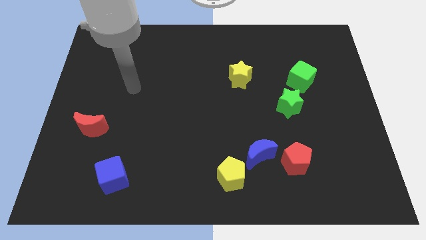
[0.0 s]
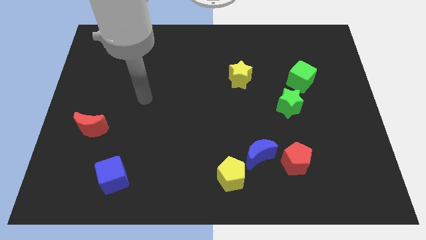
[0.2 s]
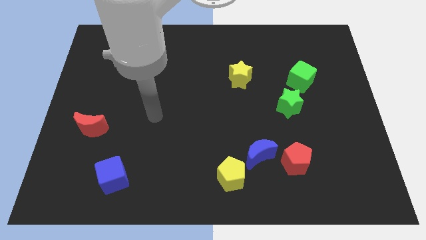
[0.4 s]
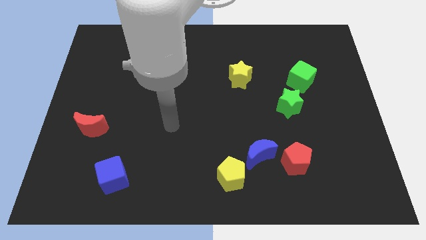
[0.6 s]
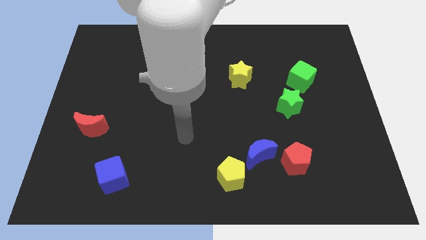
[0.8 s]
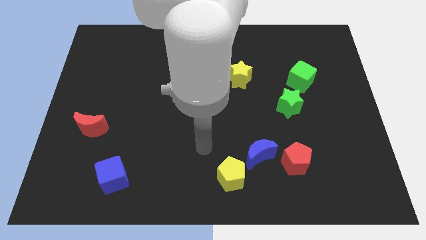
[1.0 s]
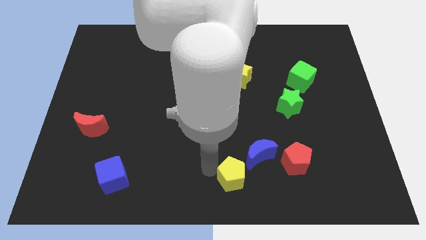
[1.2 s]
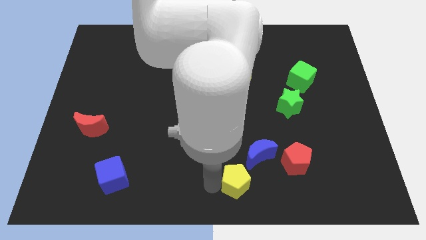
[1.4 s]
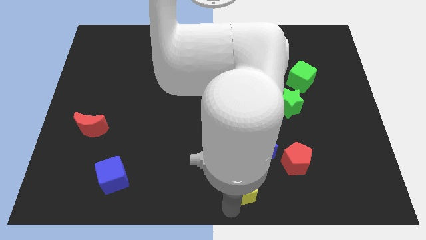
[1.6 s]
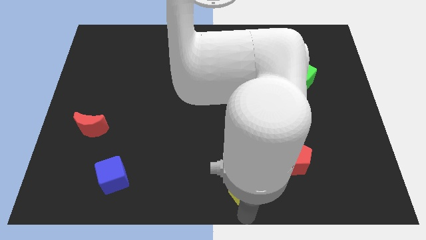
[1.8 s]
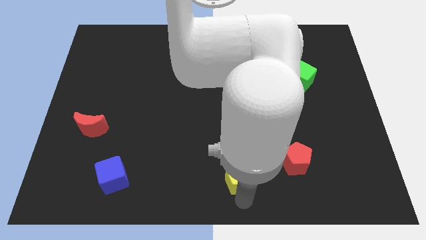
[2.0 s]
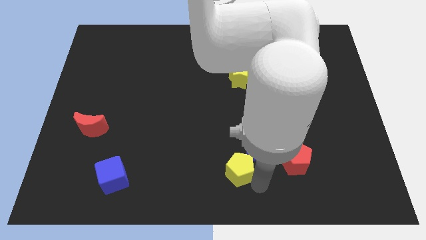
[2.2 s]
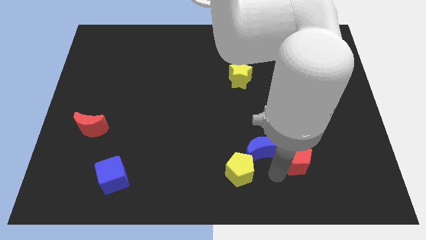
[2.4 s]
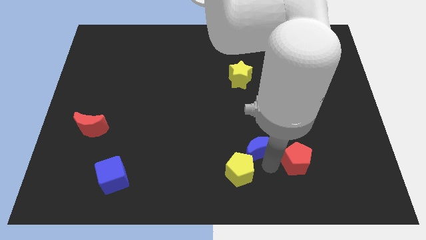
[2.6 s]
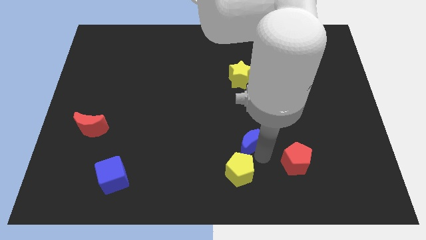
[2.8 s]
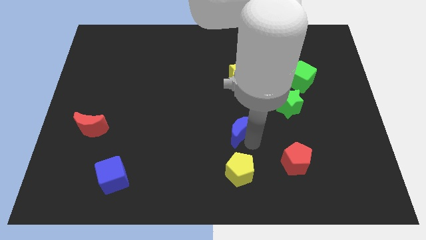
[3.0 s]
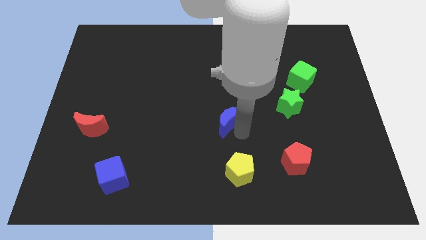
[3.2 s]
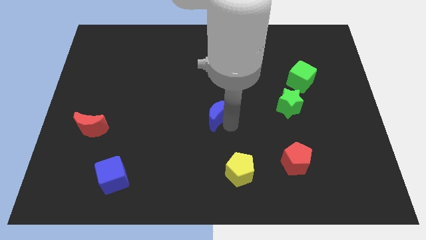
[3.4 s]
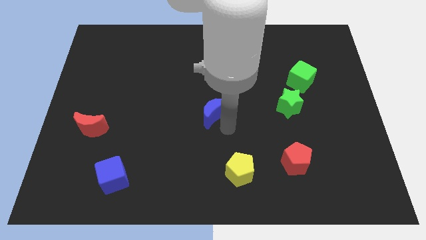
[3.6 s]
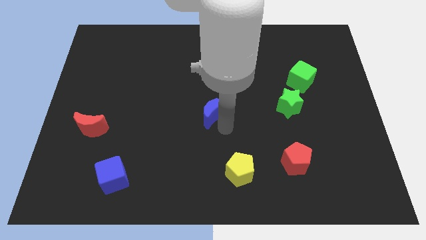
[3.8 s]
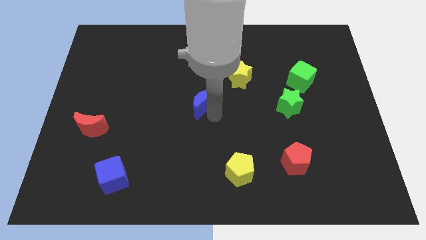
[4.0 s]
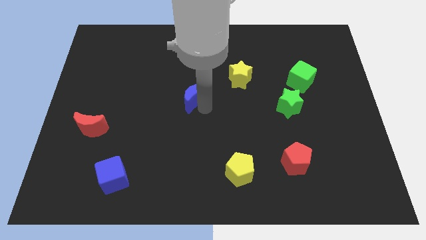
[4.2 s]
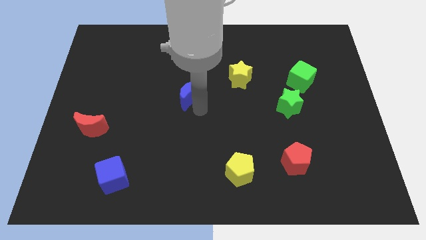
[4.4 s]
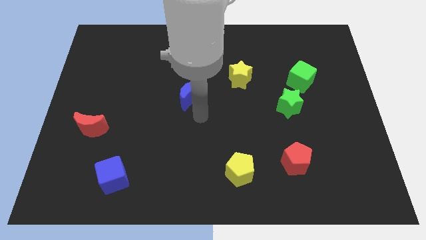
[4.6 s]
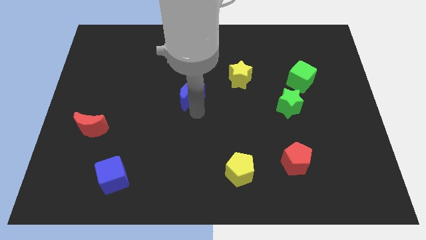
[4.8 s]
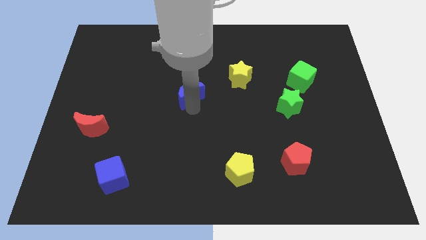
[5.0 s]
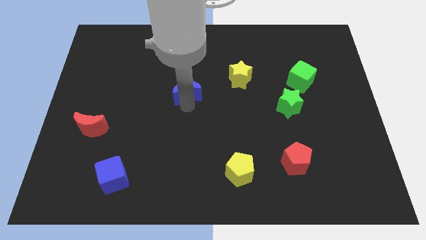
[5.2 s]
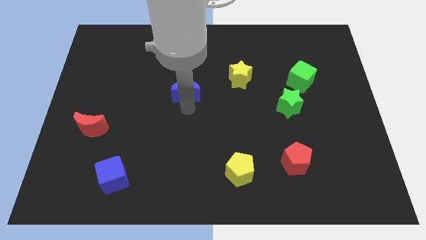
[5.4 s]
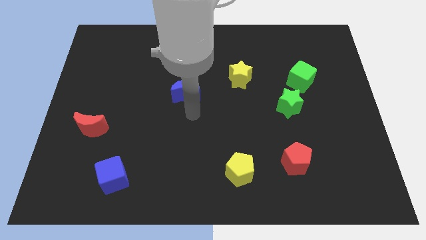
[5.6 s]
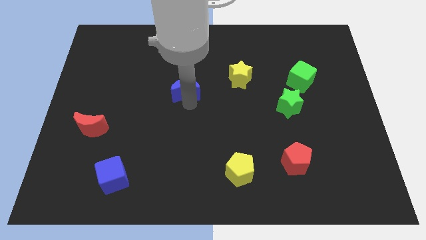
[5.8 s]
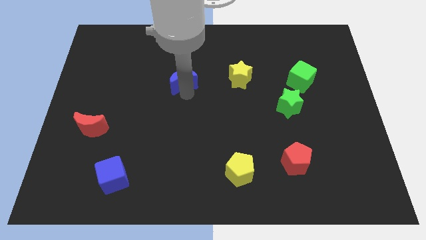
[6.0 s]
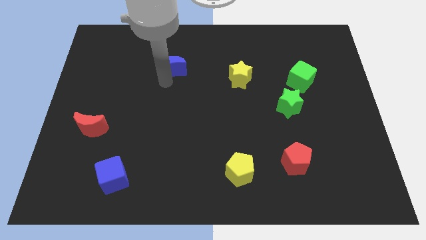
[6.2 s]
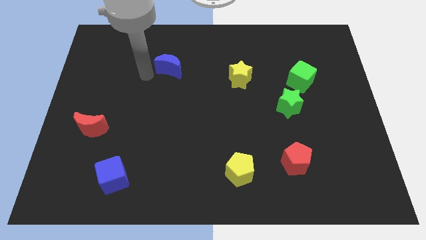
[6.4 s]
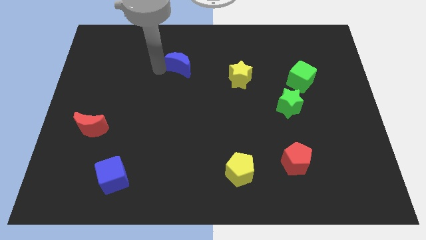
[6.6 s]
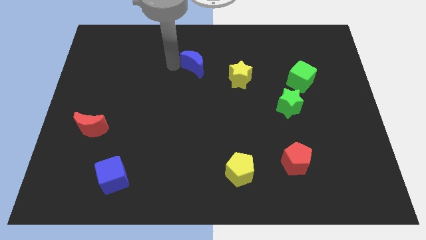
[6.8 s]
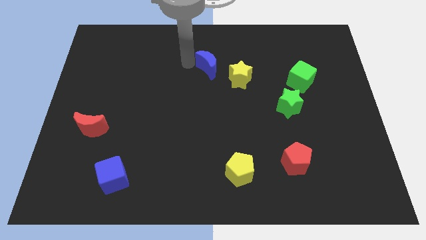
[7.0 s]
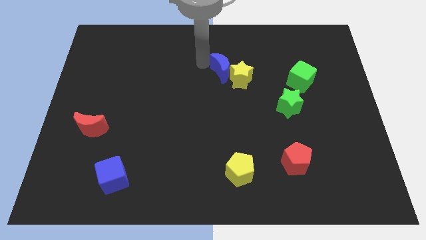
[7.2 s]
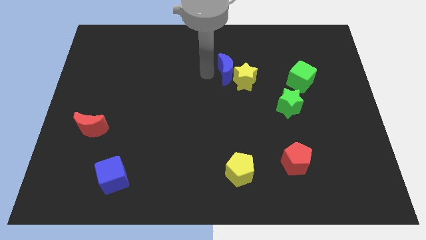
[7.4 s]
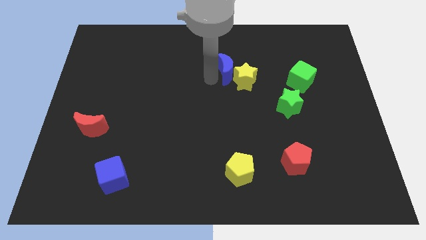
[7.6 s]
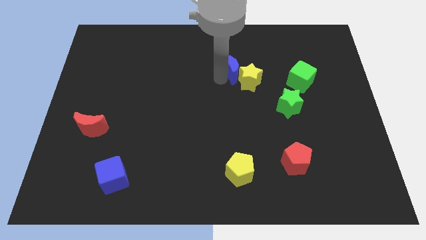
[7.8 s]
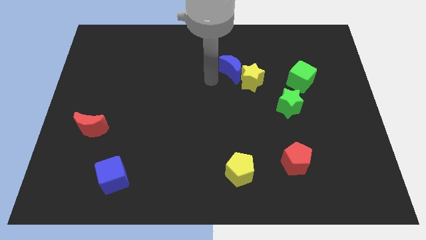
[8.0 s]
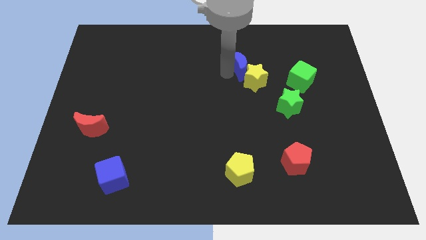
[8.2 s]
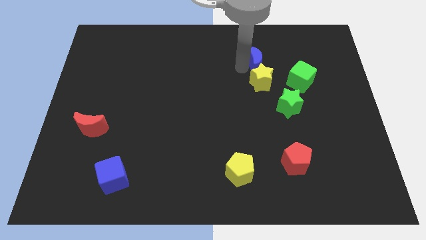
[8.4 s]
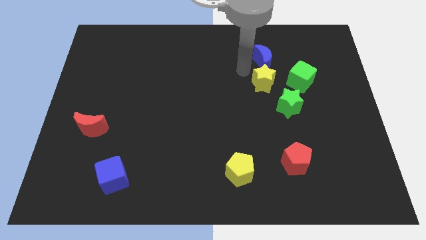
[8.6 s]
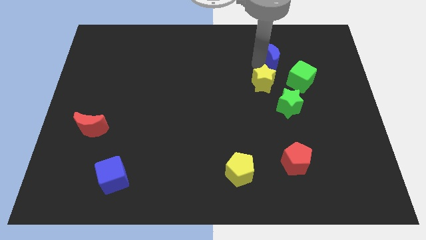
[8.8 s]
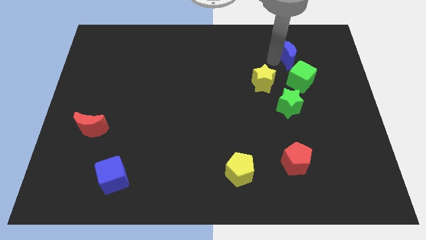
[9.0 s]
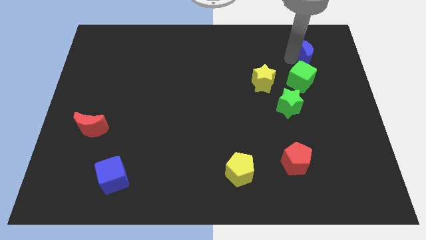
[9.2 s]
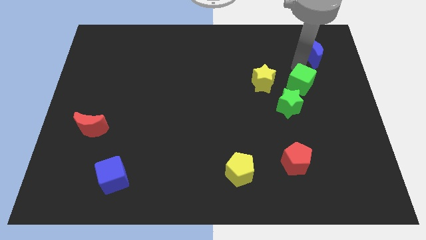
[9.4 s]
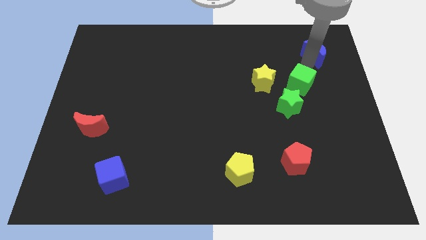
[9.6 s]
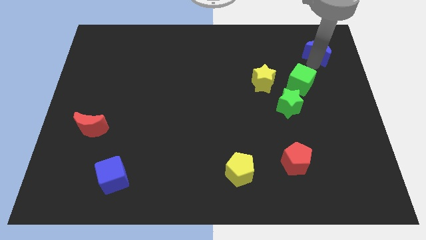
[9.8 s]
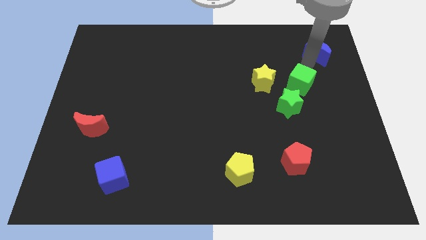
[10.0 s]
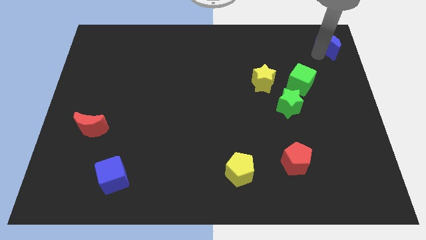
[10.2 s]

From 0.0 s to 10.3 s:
slide the blue moon to the top right

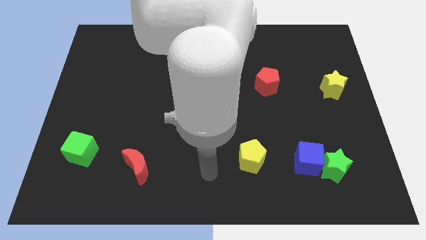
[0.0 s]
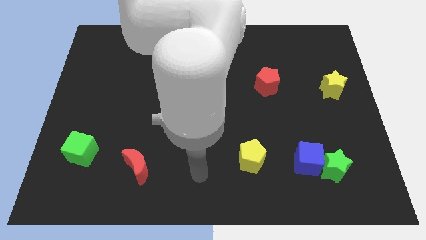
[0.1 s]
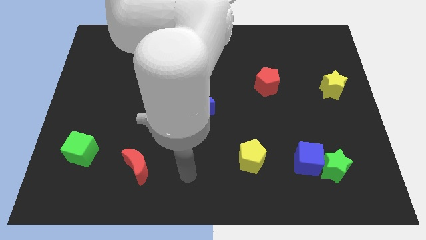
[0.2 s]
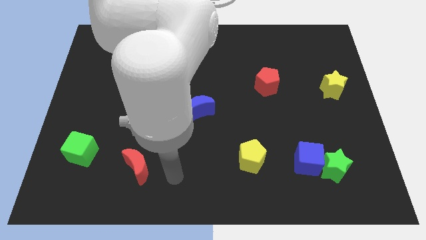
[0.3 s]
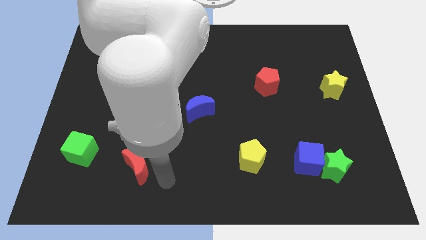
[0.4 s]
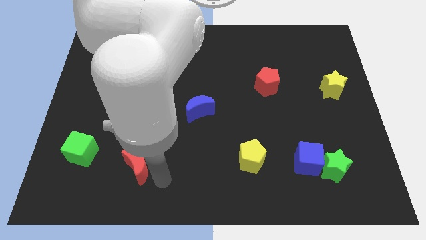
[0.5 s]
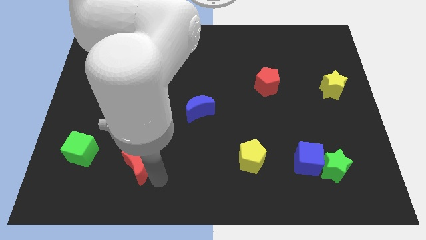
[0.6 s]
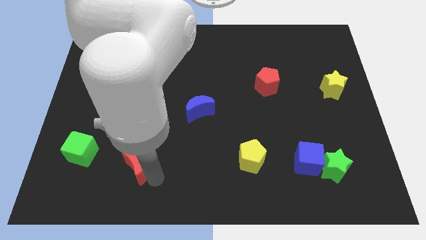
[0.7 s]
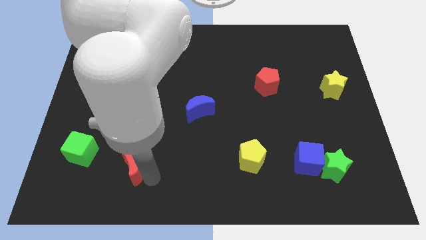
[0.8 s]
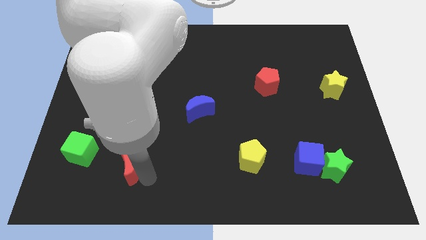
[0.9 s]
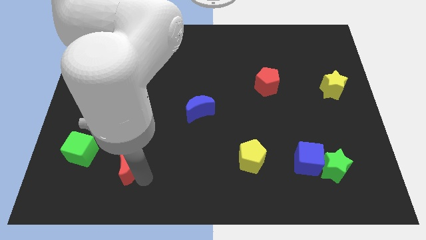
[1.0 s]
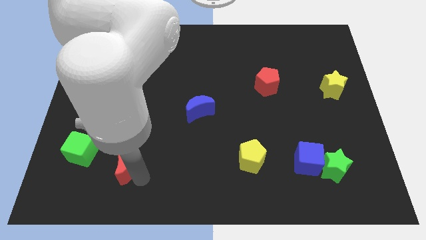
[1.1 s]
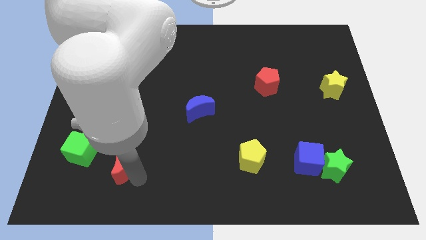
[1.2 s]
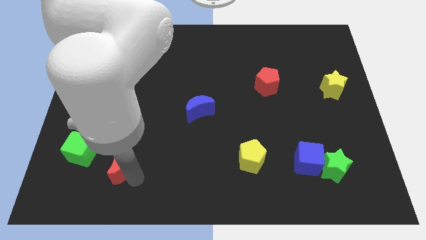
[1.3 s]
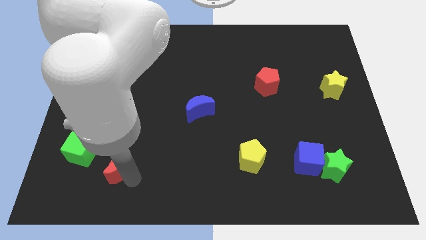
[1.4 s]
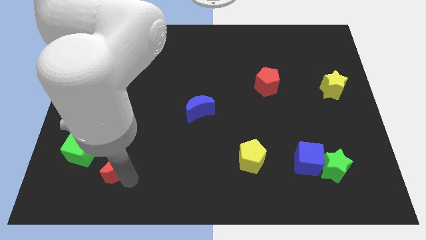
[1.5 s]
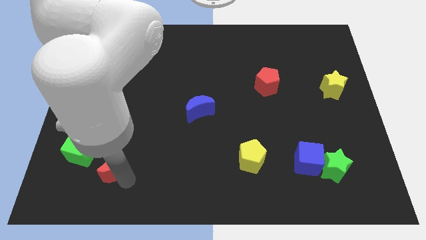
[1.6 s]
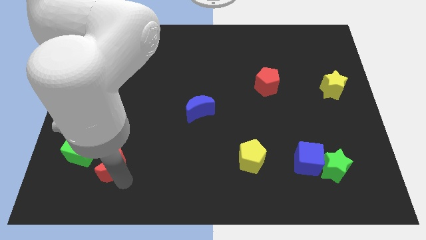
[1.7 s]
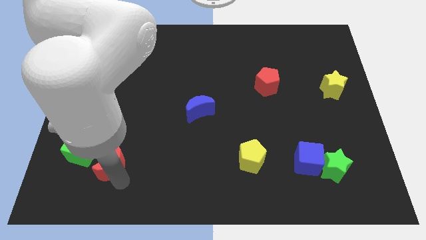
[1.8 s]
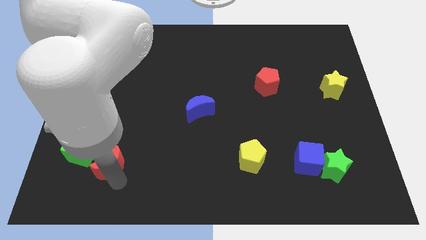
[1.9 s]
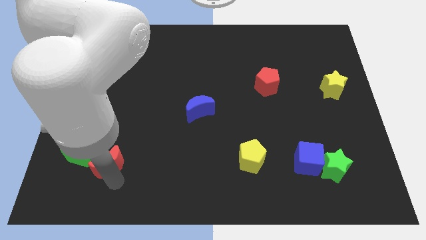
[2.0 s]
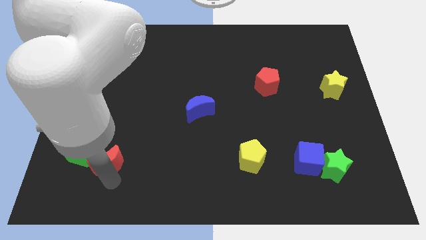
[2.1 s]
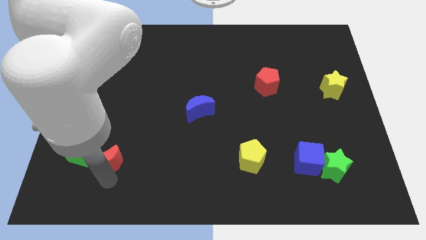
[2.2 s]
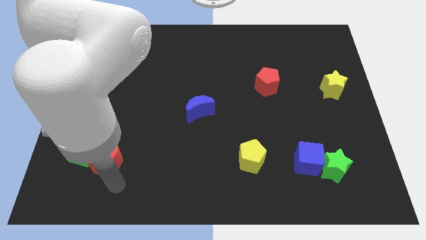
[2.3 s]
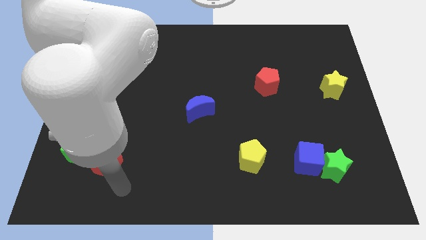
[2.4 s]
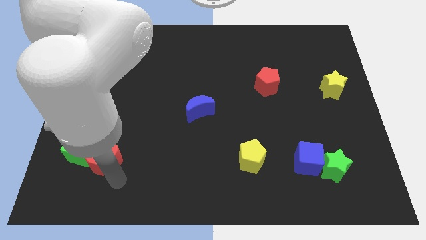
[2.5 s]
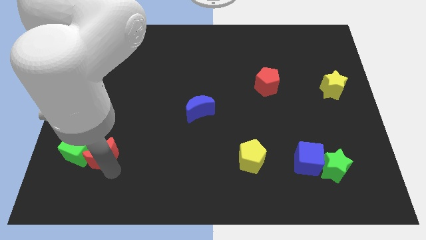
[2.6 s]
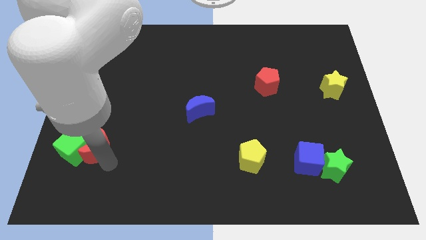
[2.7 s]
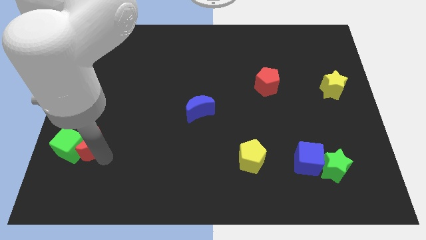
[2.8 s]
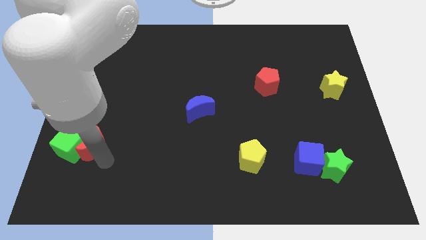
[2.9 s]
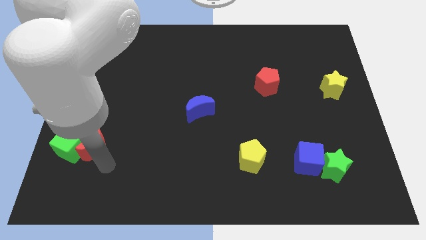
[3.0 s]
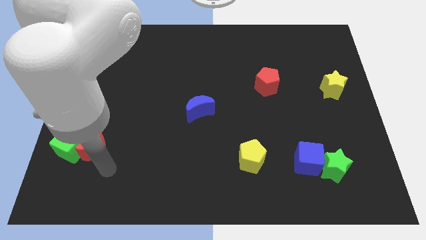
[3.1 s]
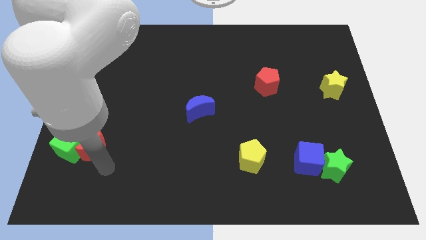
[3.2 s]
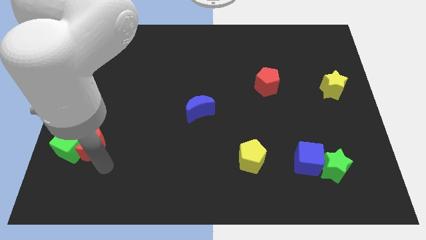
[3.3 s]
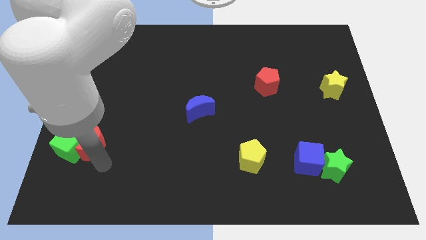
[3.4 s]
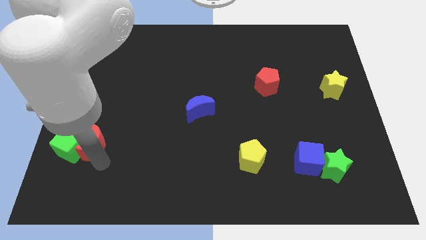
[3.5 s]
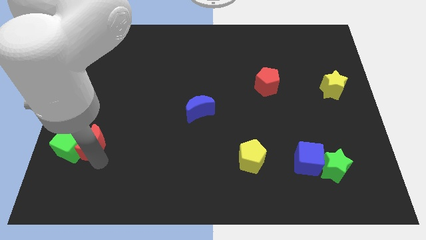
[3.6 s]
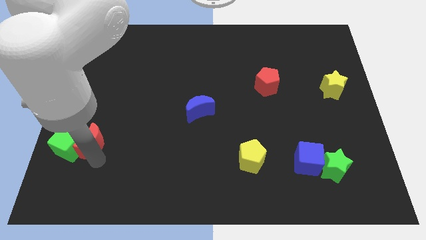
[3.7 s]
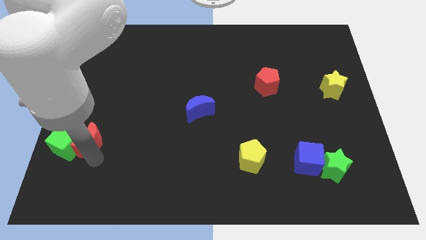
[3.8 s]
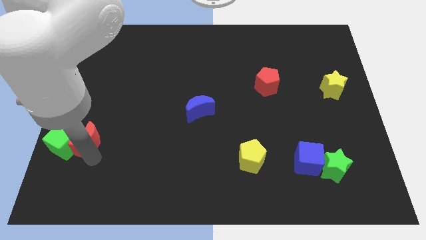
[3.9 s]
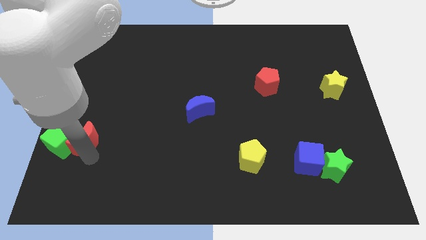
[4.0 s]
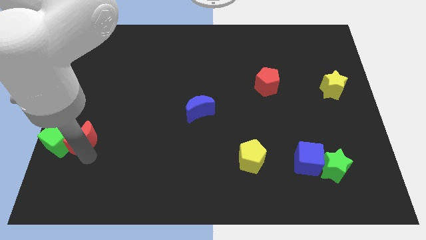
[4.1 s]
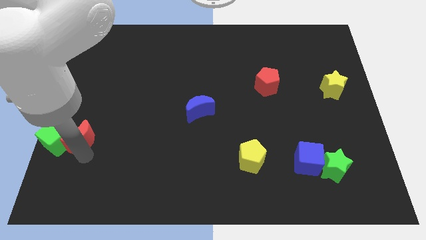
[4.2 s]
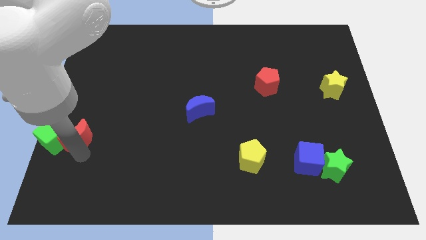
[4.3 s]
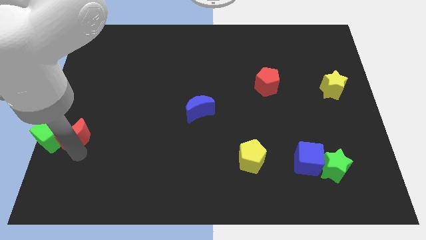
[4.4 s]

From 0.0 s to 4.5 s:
slide the red moon to the center left
